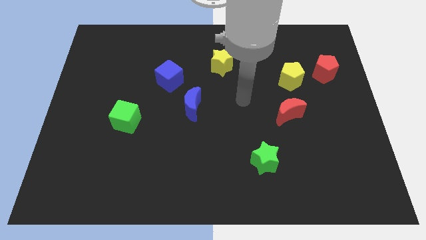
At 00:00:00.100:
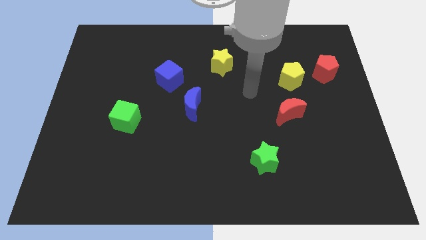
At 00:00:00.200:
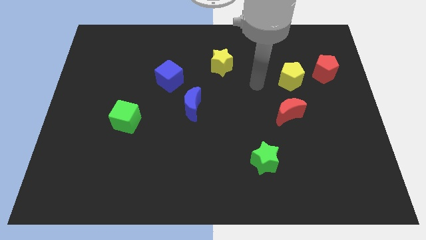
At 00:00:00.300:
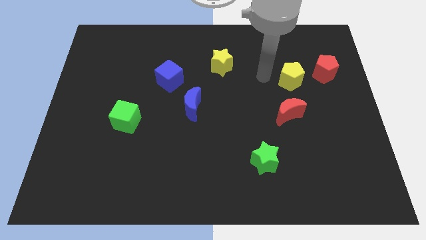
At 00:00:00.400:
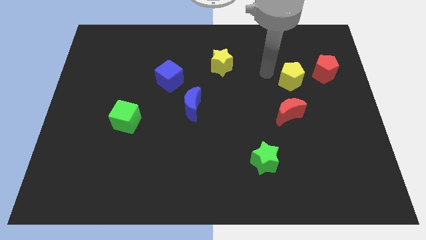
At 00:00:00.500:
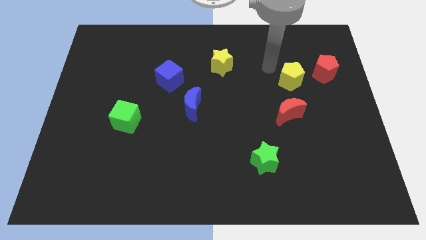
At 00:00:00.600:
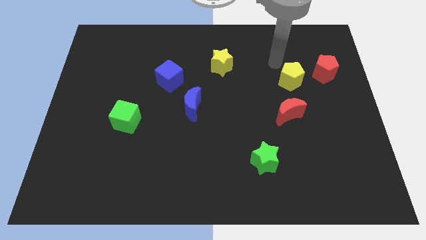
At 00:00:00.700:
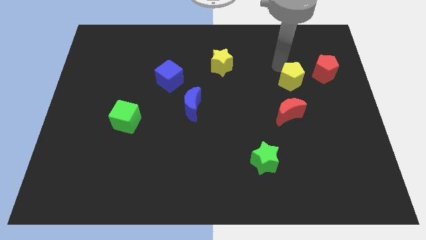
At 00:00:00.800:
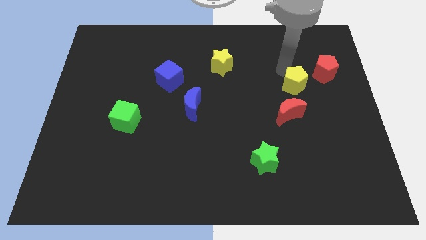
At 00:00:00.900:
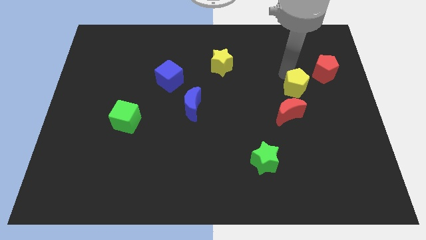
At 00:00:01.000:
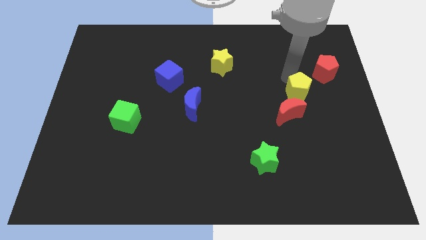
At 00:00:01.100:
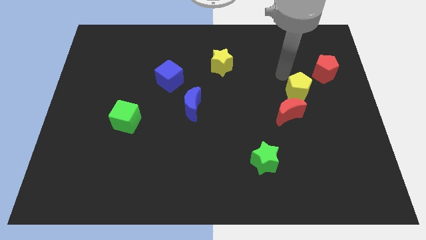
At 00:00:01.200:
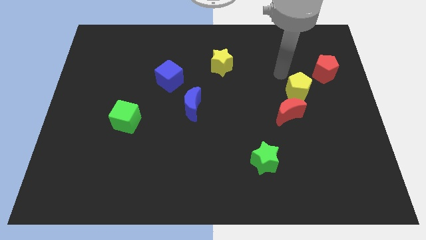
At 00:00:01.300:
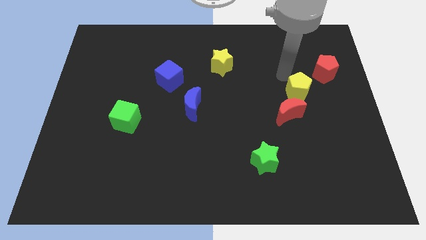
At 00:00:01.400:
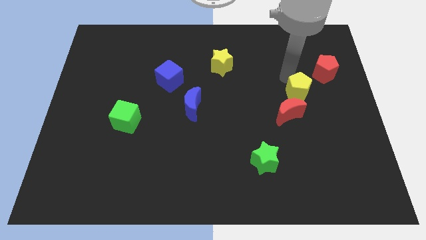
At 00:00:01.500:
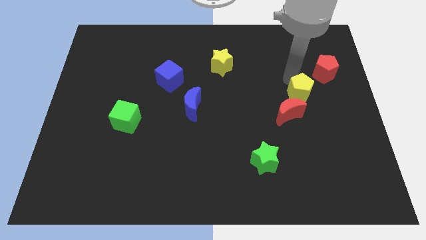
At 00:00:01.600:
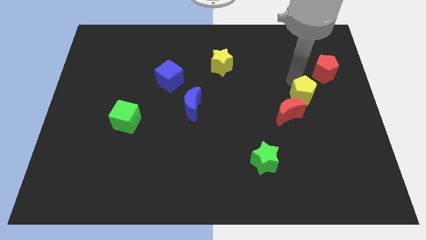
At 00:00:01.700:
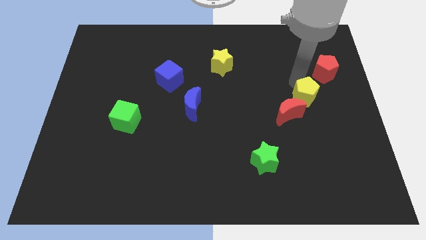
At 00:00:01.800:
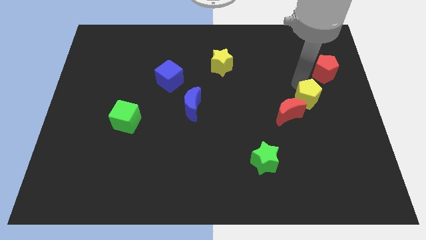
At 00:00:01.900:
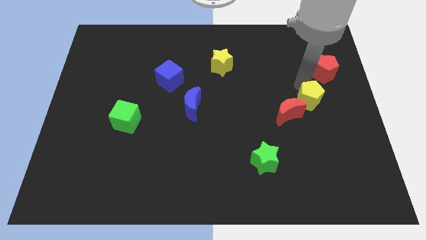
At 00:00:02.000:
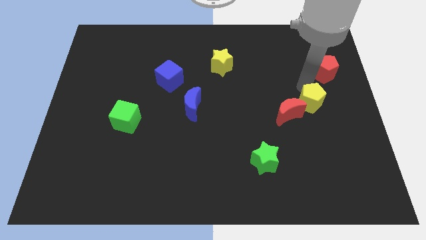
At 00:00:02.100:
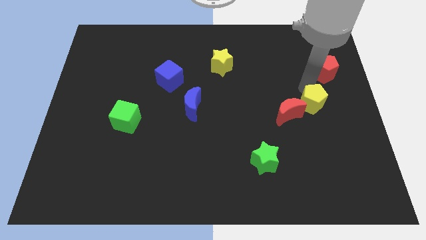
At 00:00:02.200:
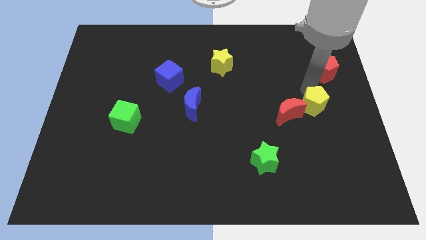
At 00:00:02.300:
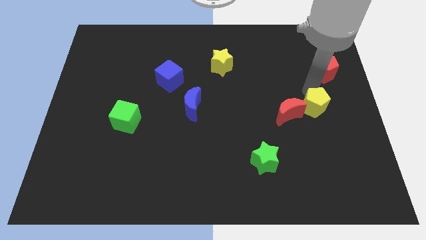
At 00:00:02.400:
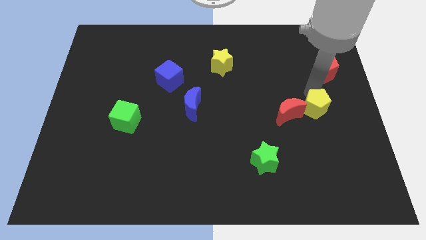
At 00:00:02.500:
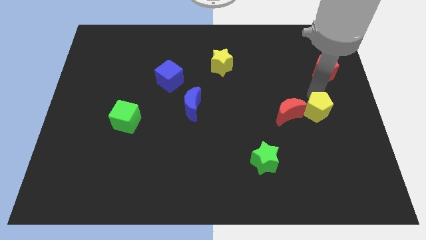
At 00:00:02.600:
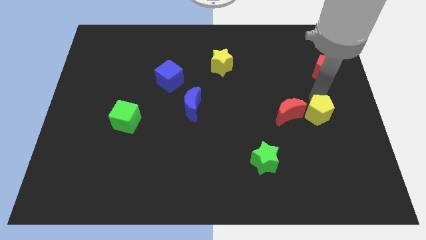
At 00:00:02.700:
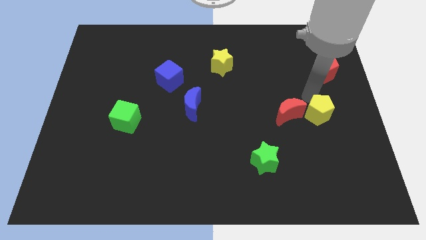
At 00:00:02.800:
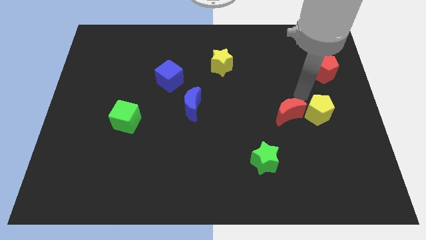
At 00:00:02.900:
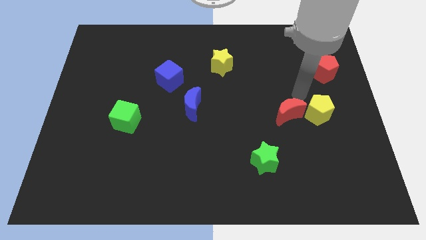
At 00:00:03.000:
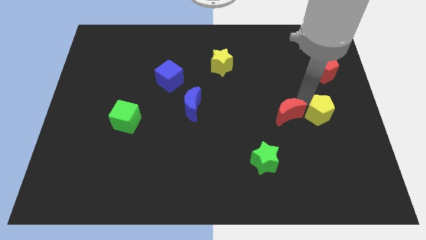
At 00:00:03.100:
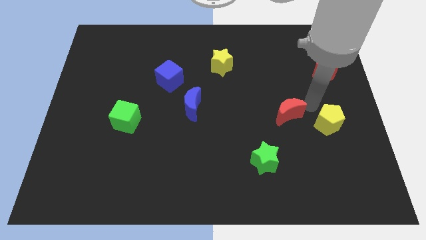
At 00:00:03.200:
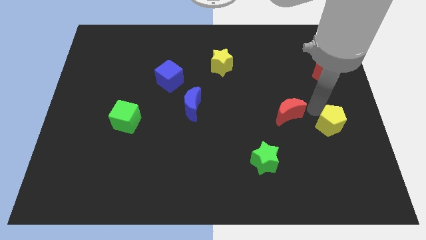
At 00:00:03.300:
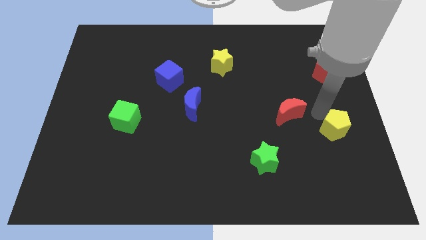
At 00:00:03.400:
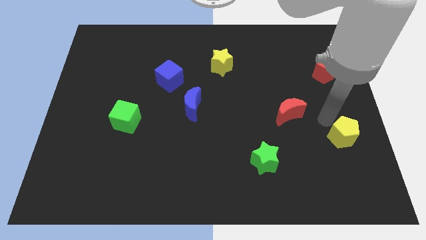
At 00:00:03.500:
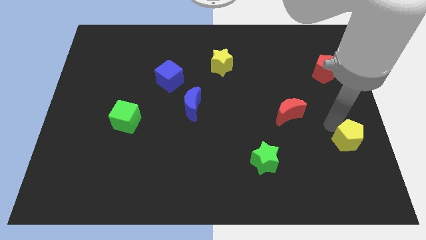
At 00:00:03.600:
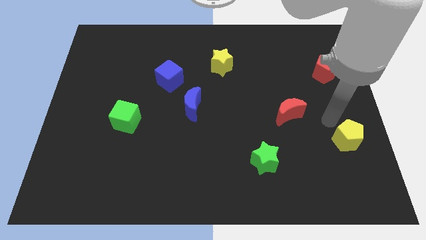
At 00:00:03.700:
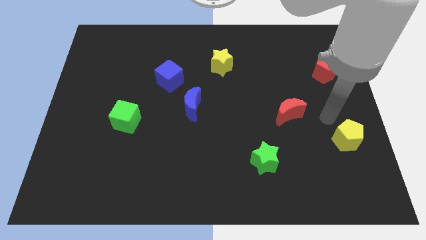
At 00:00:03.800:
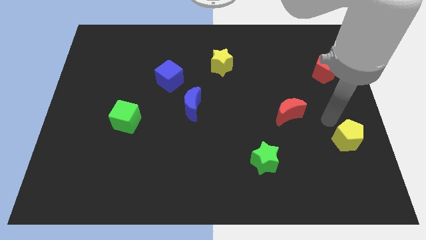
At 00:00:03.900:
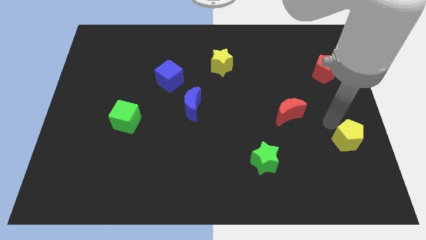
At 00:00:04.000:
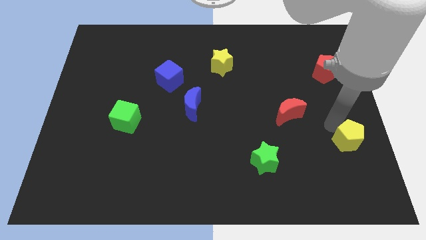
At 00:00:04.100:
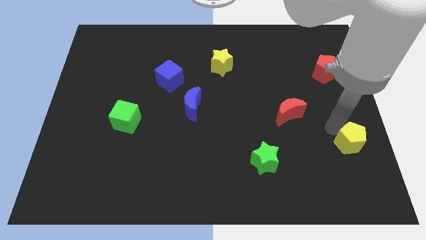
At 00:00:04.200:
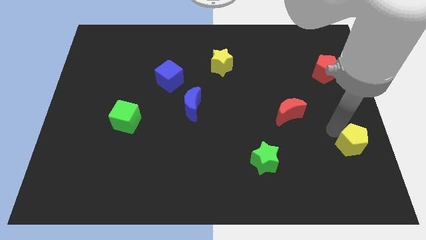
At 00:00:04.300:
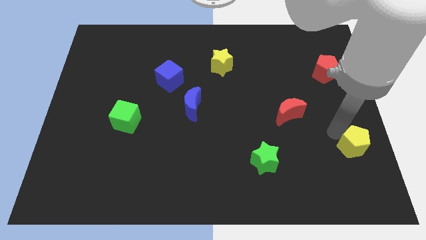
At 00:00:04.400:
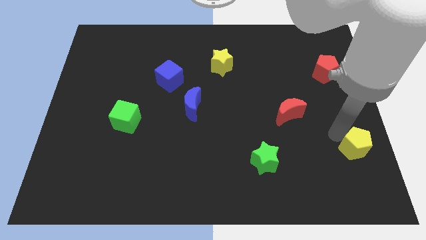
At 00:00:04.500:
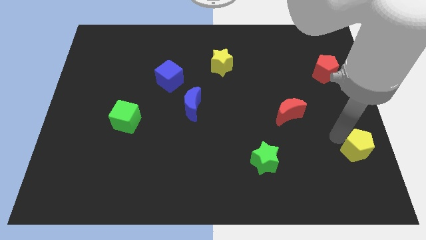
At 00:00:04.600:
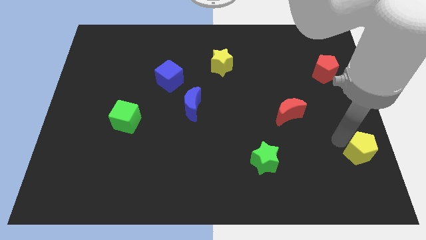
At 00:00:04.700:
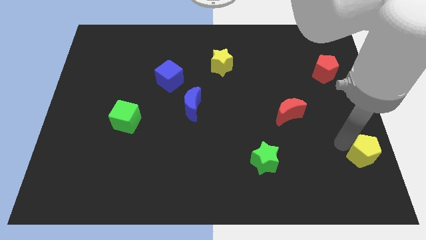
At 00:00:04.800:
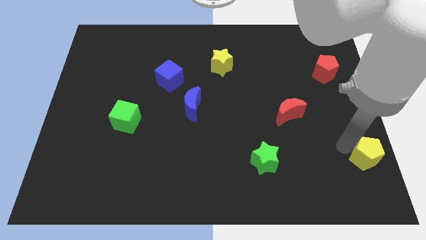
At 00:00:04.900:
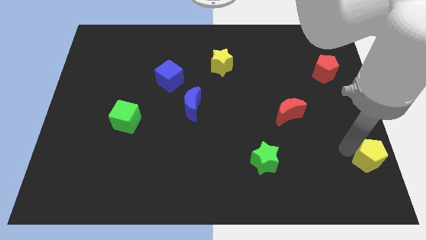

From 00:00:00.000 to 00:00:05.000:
put the yellow pentagon to the bottom right of the board
